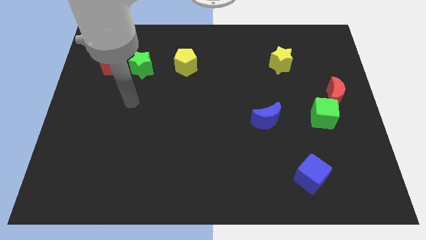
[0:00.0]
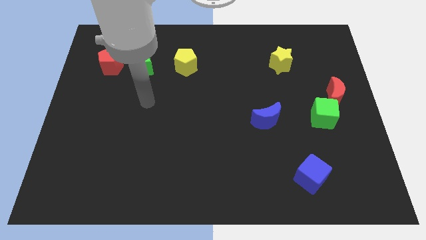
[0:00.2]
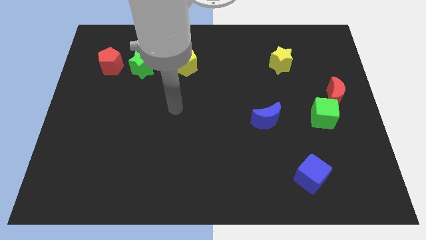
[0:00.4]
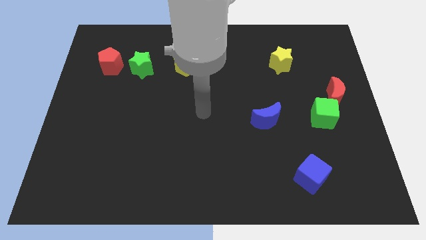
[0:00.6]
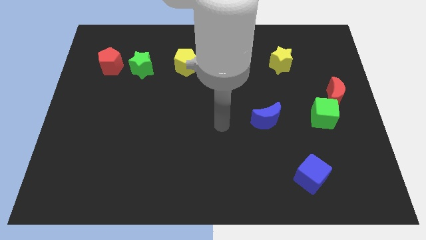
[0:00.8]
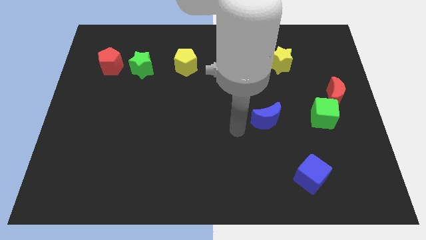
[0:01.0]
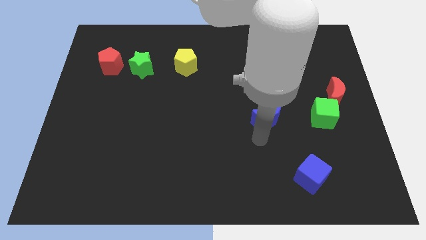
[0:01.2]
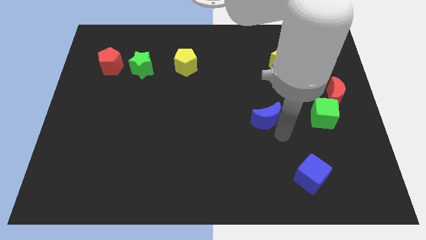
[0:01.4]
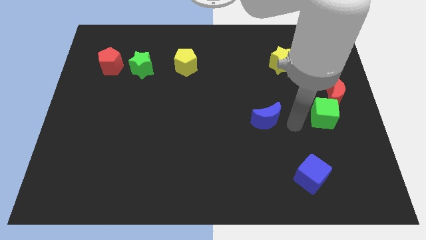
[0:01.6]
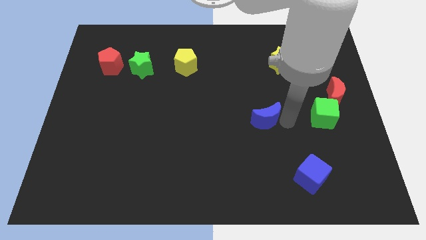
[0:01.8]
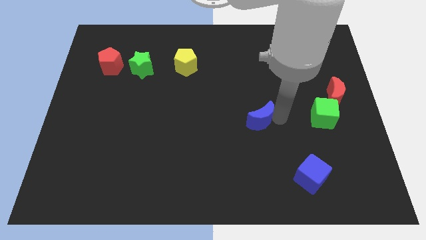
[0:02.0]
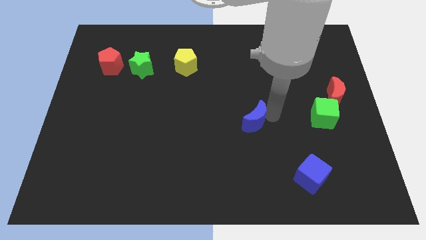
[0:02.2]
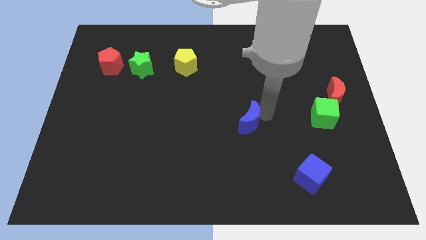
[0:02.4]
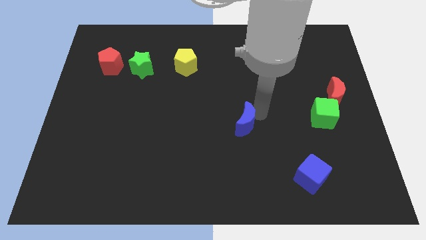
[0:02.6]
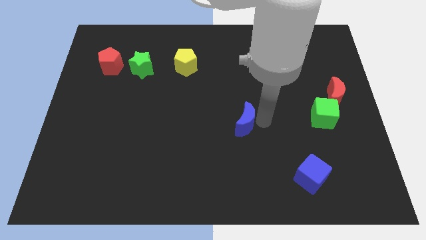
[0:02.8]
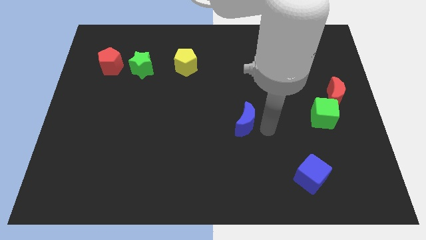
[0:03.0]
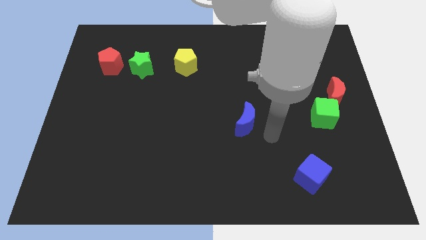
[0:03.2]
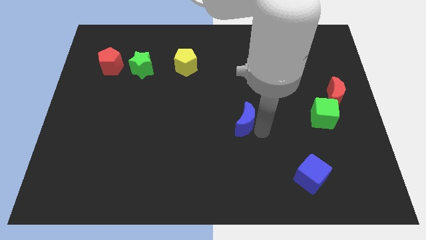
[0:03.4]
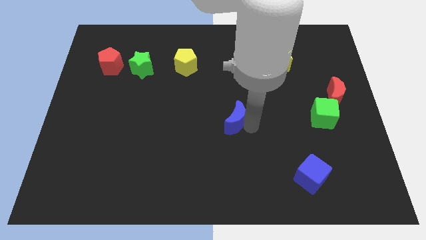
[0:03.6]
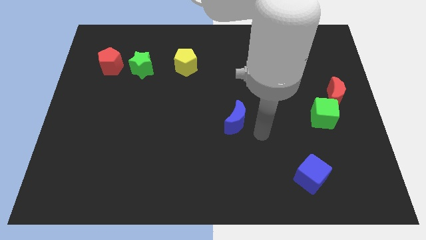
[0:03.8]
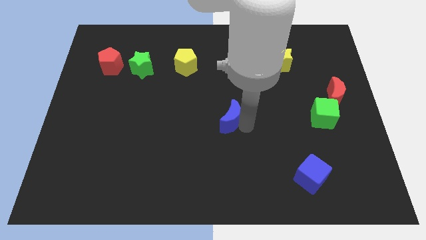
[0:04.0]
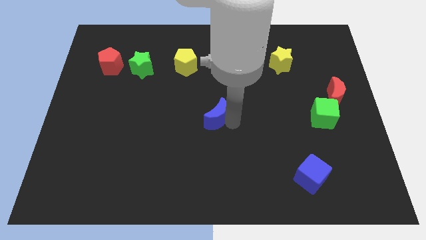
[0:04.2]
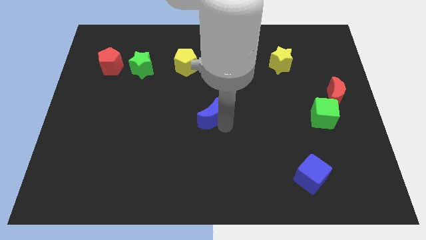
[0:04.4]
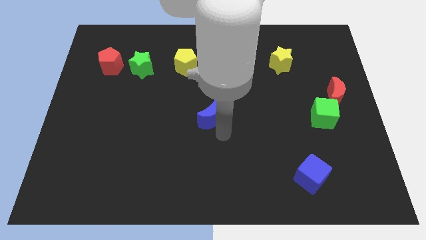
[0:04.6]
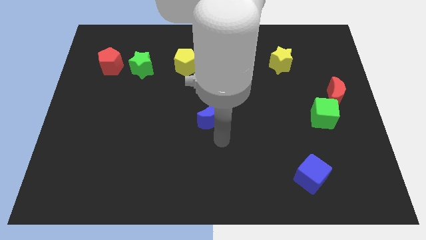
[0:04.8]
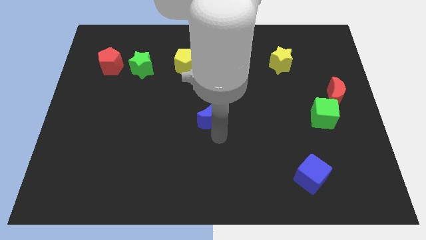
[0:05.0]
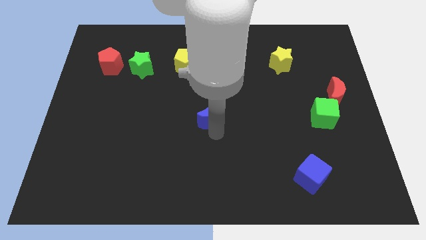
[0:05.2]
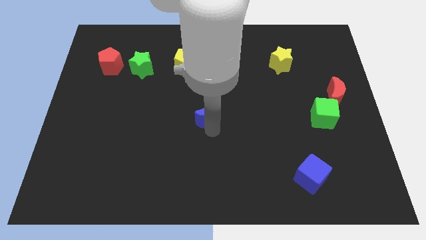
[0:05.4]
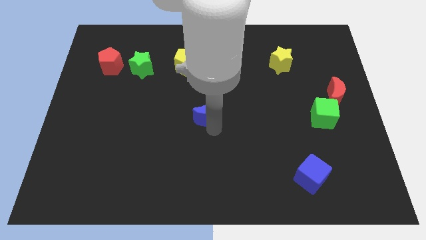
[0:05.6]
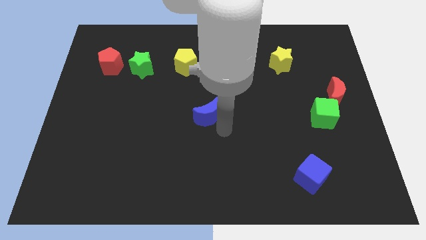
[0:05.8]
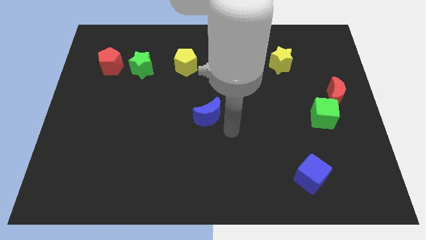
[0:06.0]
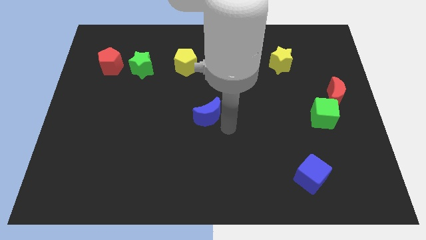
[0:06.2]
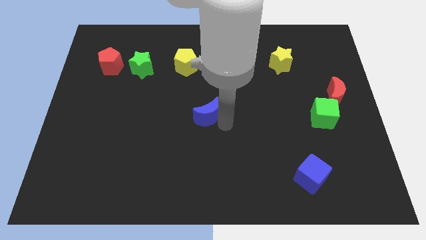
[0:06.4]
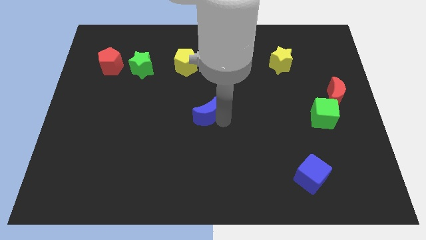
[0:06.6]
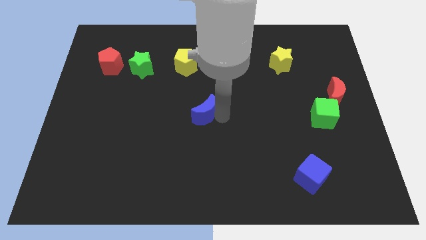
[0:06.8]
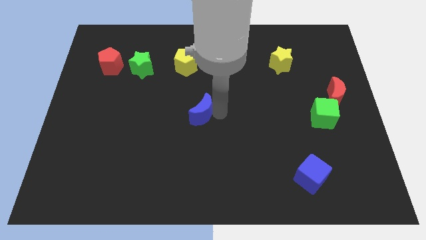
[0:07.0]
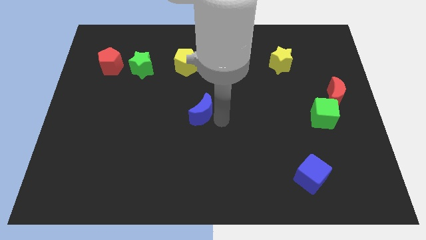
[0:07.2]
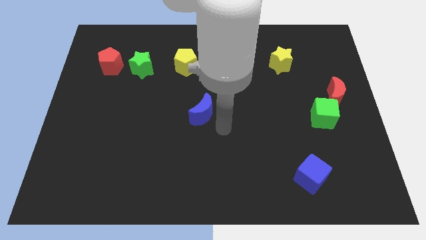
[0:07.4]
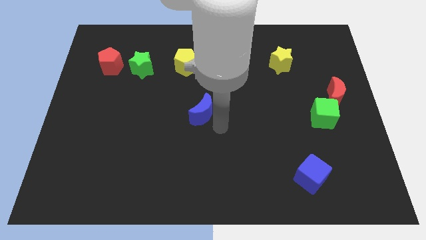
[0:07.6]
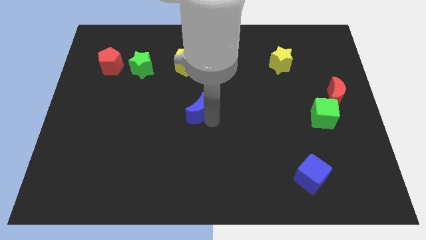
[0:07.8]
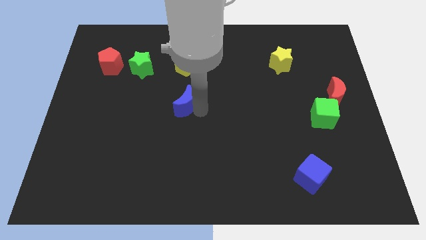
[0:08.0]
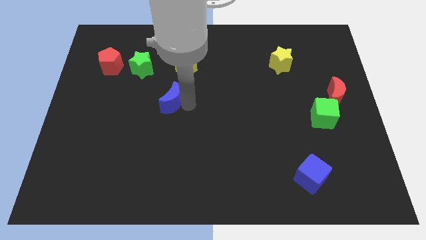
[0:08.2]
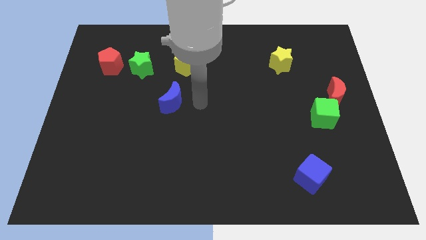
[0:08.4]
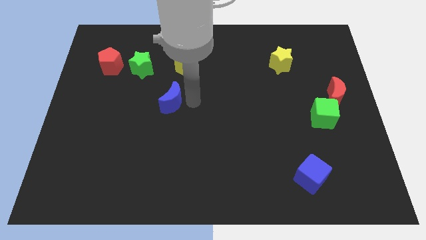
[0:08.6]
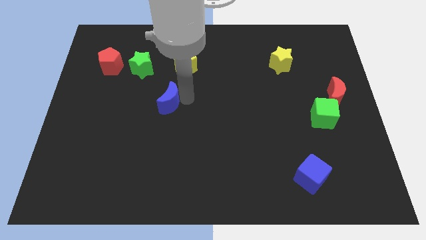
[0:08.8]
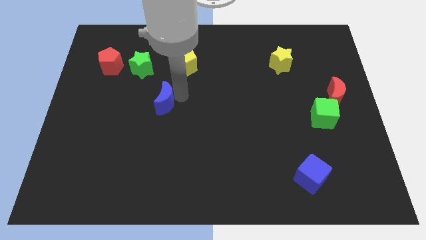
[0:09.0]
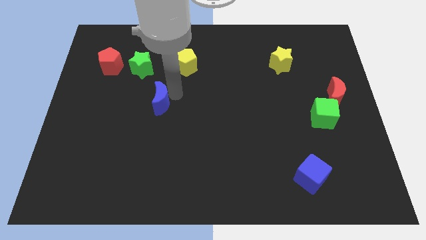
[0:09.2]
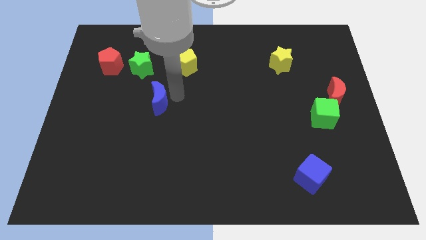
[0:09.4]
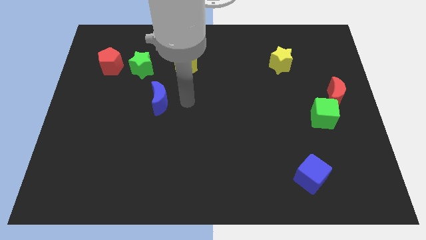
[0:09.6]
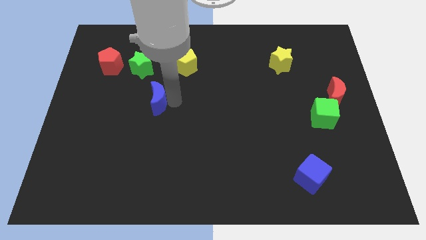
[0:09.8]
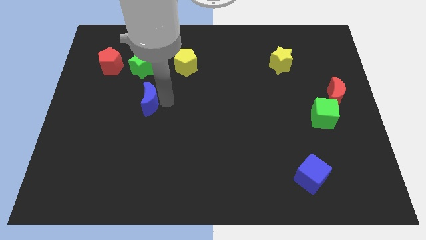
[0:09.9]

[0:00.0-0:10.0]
move the blue moon to the bottom of the green star

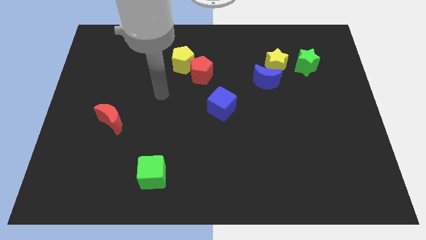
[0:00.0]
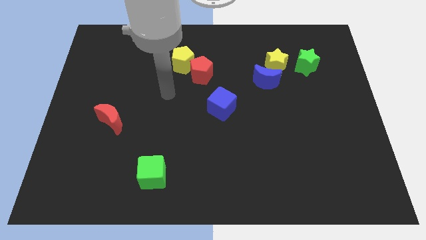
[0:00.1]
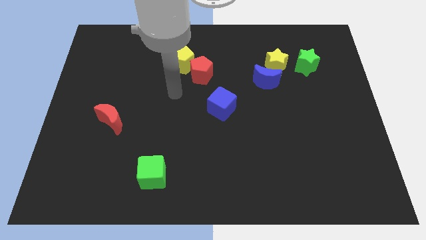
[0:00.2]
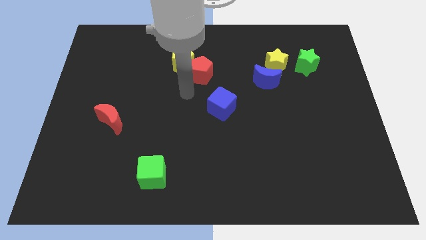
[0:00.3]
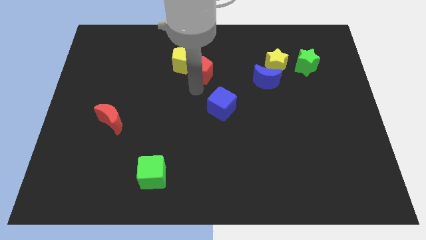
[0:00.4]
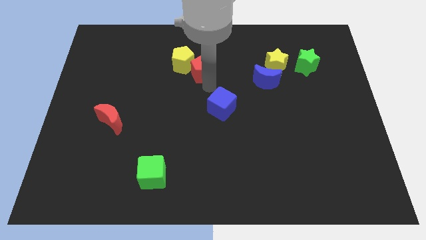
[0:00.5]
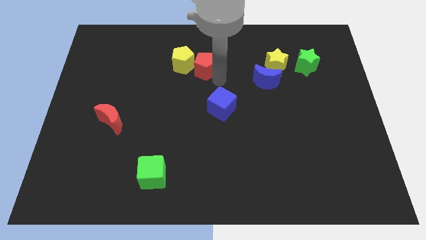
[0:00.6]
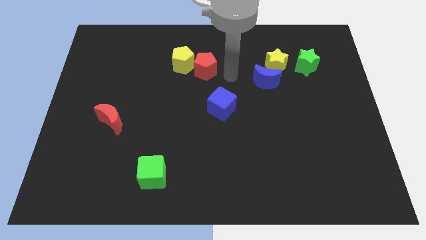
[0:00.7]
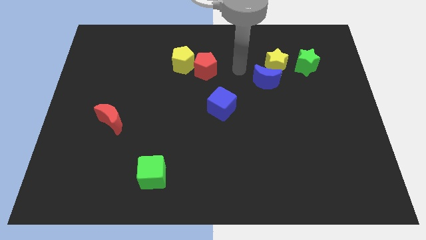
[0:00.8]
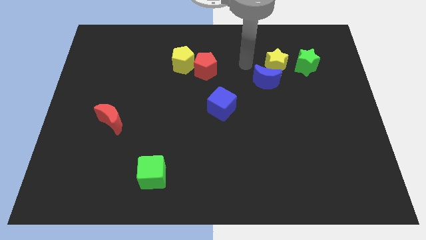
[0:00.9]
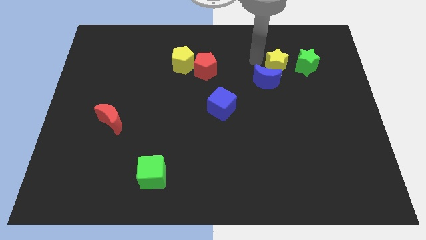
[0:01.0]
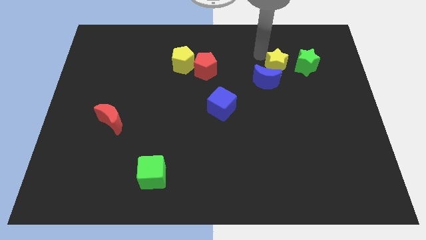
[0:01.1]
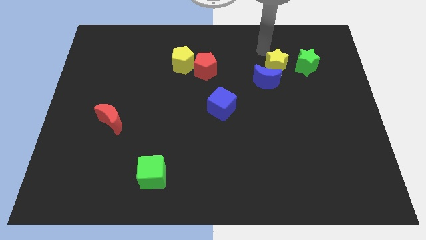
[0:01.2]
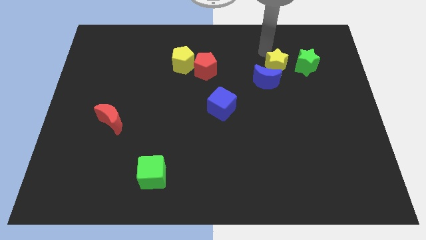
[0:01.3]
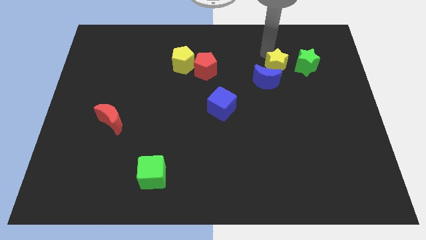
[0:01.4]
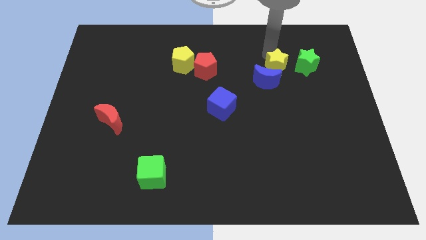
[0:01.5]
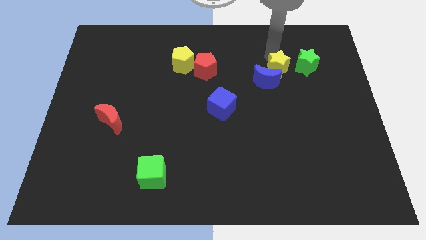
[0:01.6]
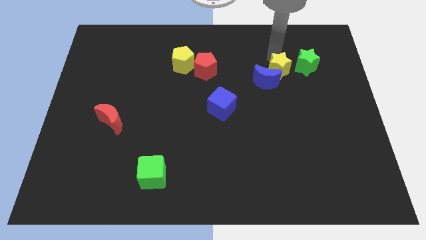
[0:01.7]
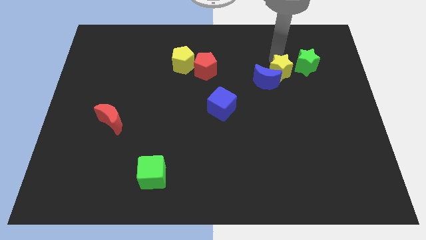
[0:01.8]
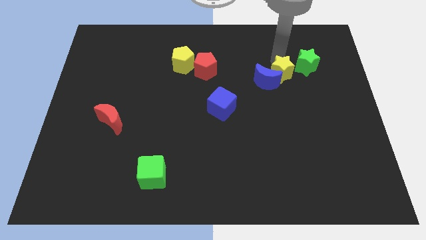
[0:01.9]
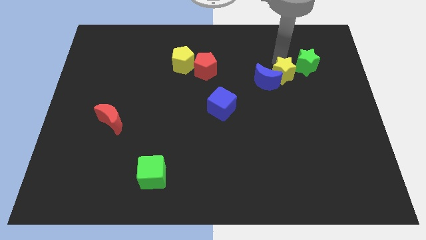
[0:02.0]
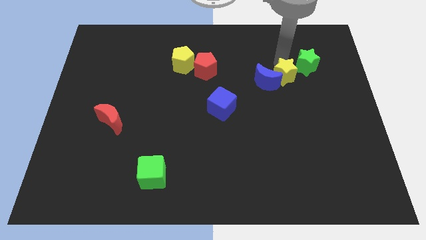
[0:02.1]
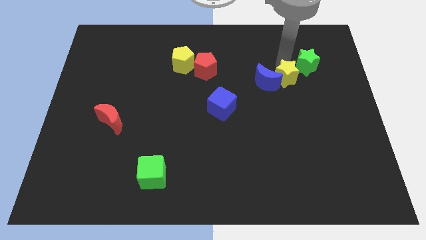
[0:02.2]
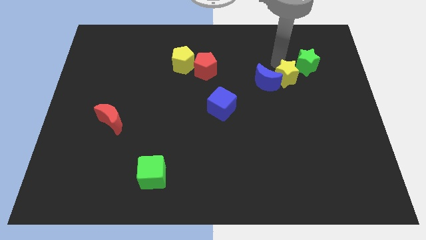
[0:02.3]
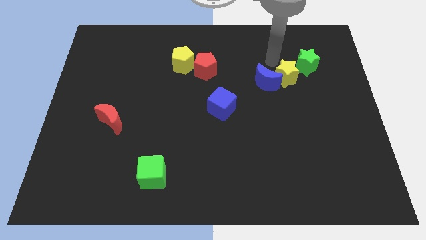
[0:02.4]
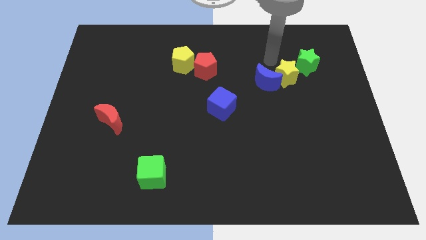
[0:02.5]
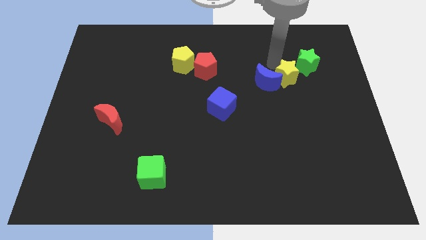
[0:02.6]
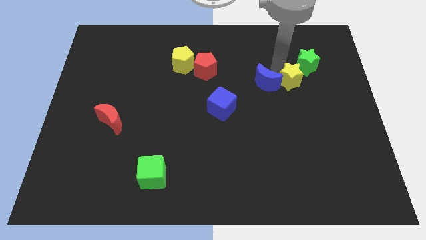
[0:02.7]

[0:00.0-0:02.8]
push the yellow star to the bottom side of the green star
